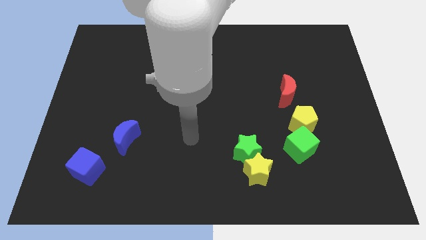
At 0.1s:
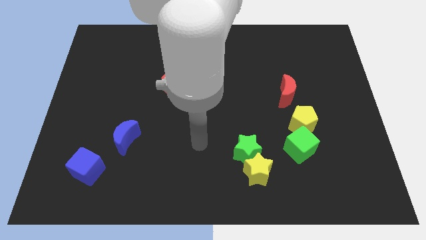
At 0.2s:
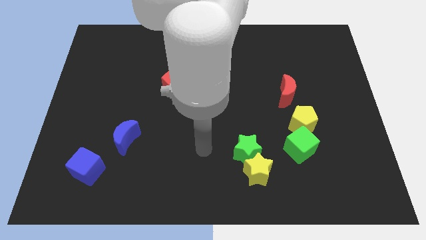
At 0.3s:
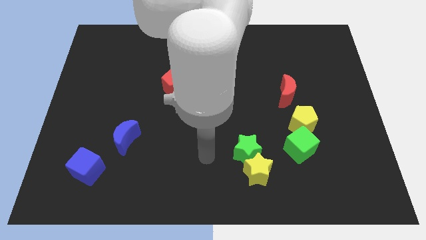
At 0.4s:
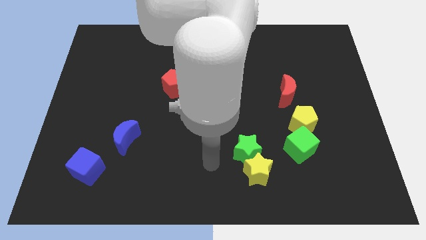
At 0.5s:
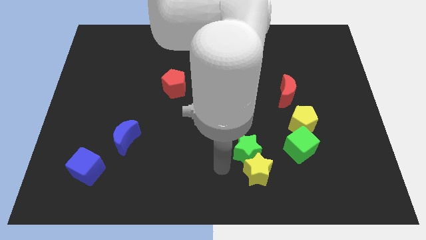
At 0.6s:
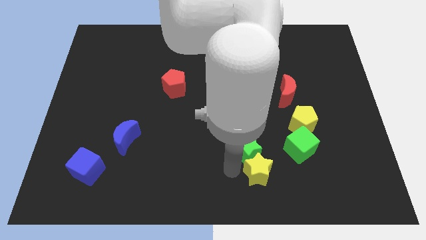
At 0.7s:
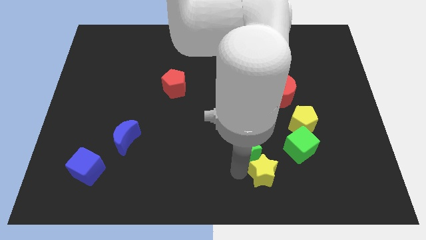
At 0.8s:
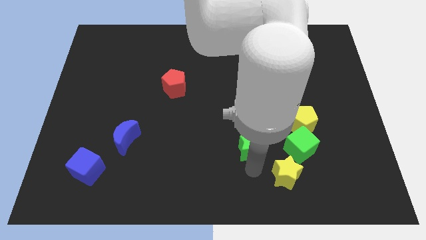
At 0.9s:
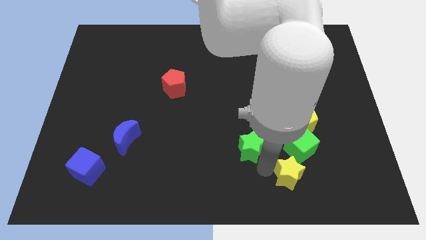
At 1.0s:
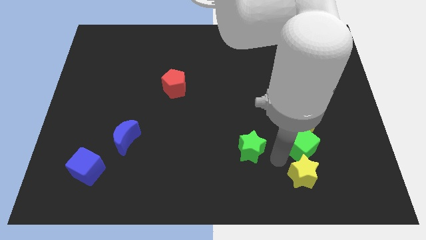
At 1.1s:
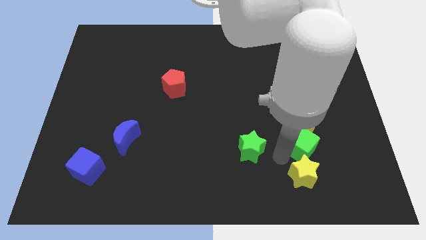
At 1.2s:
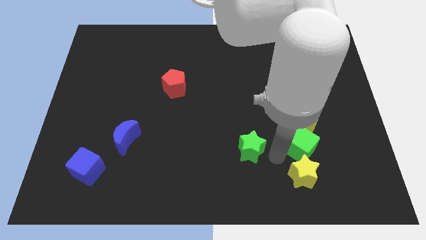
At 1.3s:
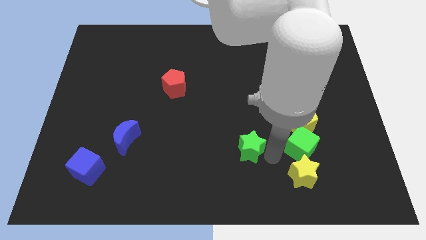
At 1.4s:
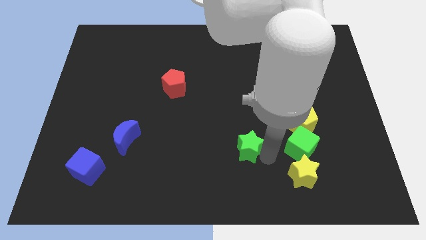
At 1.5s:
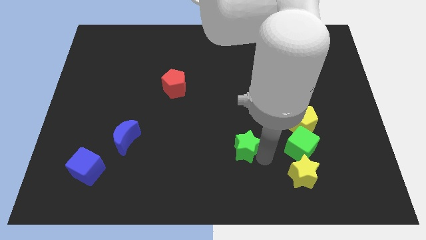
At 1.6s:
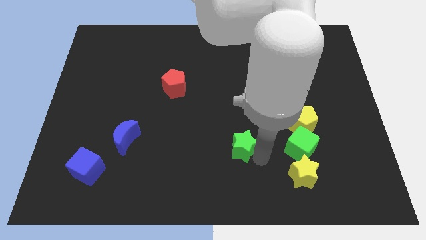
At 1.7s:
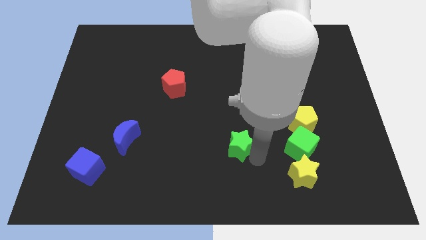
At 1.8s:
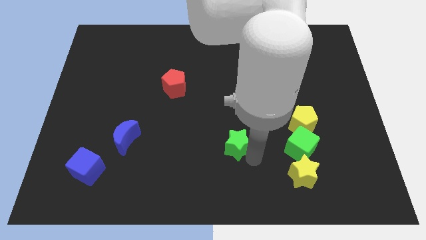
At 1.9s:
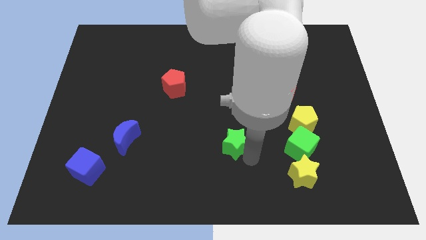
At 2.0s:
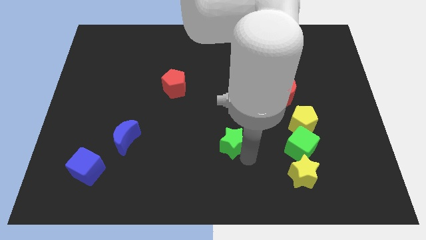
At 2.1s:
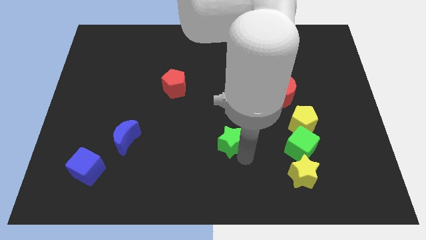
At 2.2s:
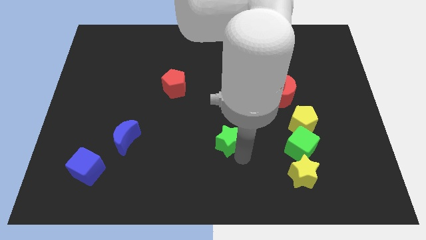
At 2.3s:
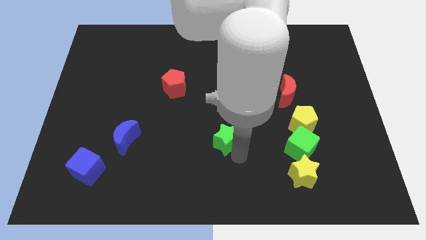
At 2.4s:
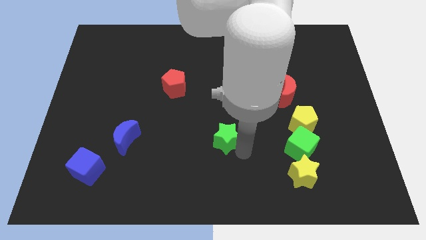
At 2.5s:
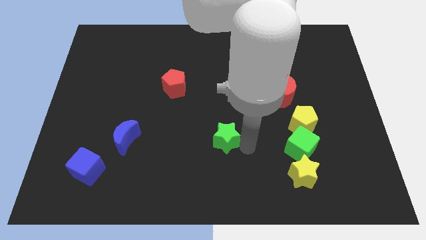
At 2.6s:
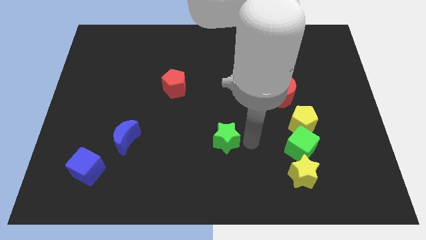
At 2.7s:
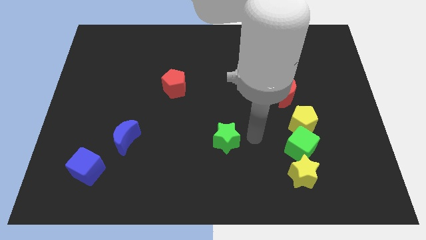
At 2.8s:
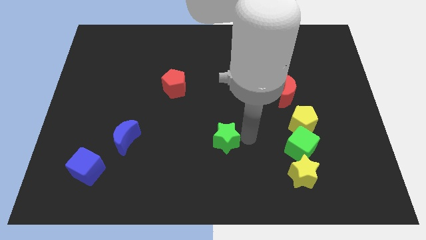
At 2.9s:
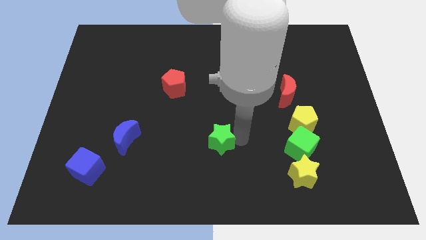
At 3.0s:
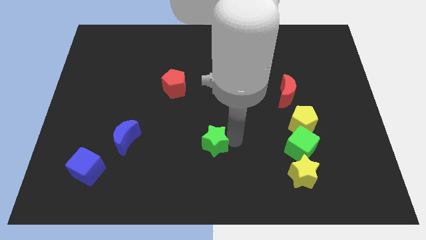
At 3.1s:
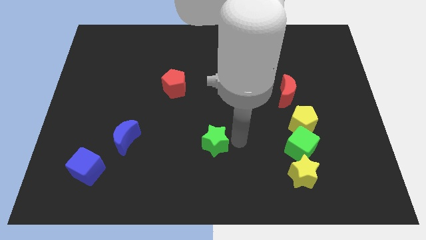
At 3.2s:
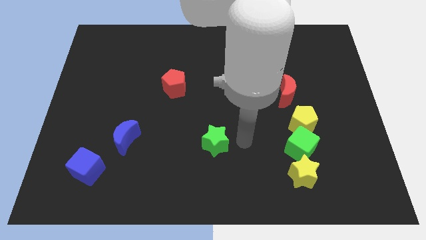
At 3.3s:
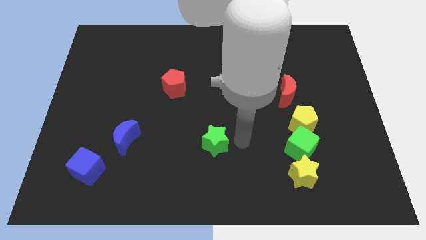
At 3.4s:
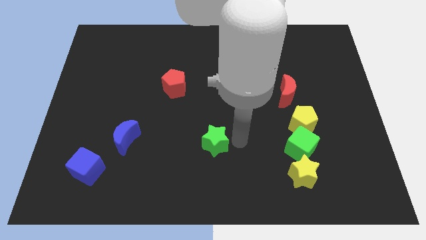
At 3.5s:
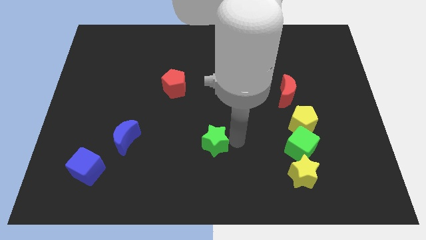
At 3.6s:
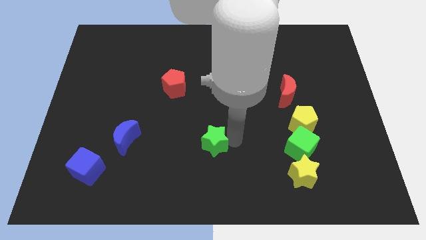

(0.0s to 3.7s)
slightly slide the green star to the left

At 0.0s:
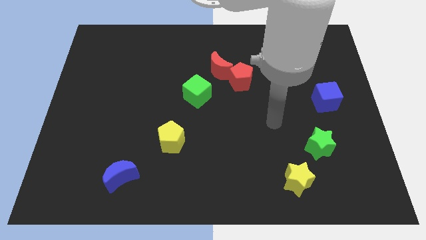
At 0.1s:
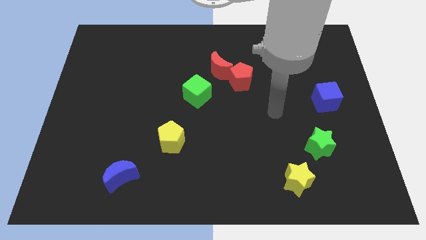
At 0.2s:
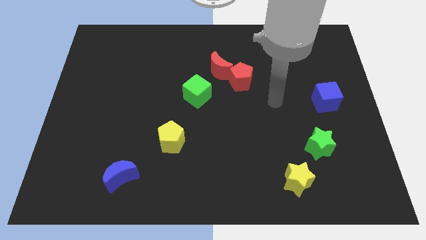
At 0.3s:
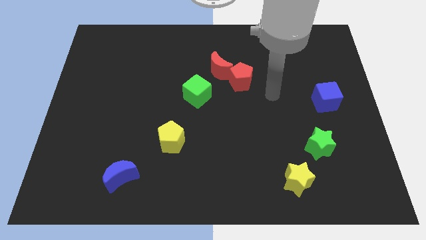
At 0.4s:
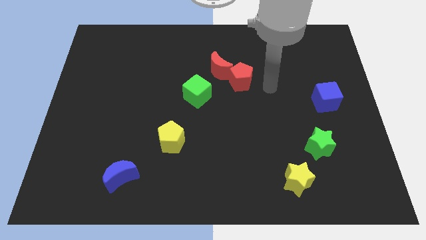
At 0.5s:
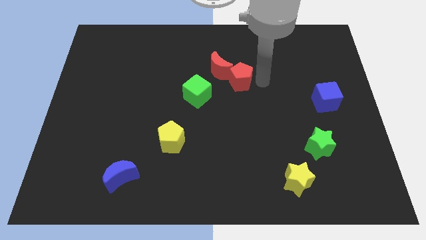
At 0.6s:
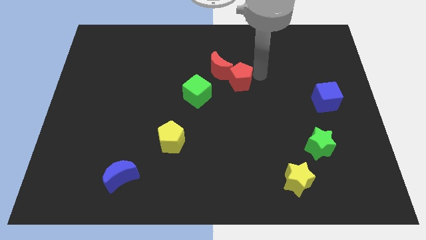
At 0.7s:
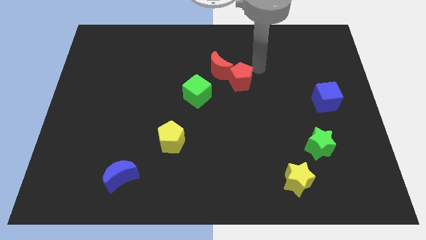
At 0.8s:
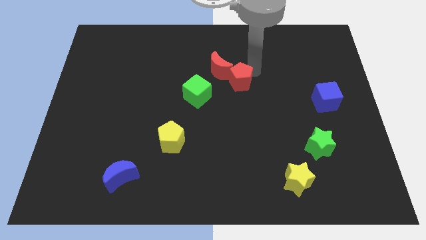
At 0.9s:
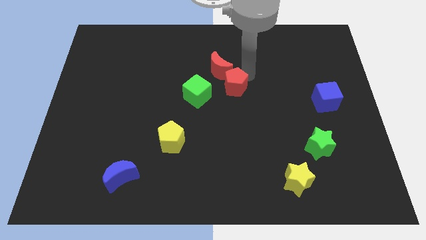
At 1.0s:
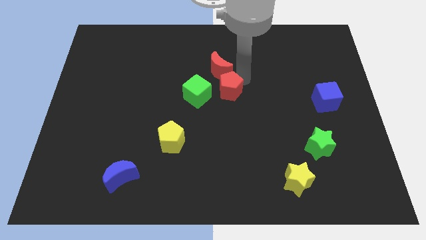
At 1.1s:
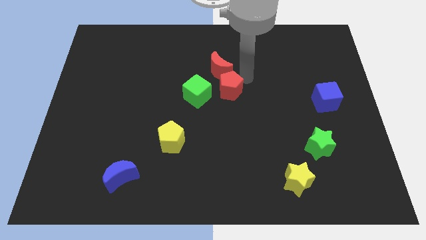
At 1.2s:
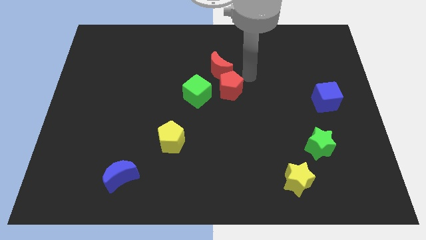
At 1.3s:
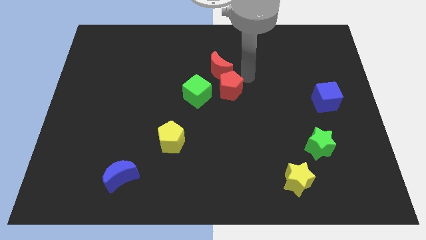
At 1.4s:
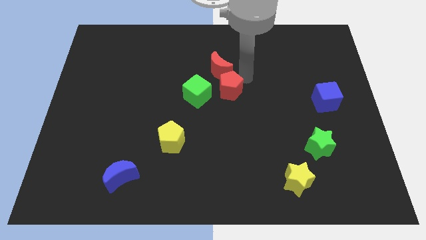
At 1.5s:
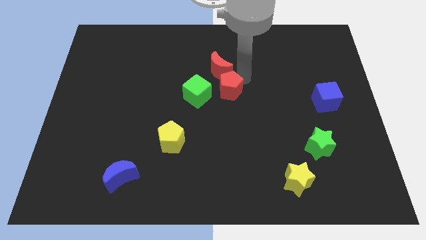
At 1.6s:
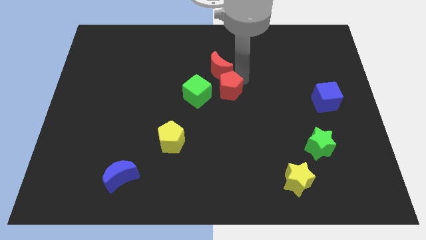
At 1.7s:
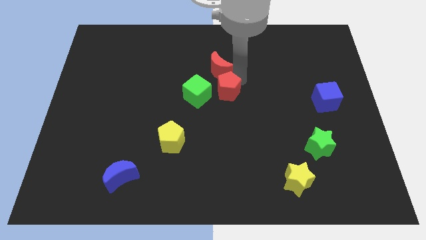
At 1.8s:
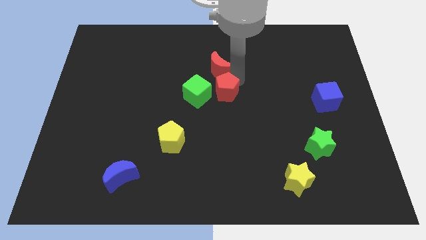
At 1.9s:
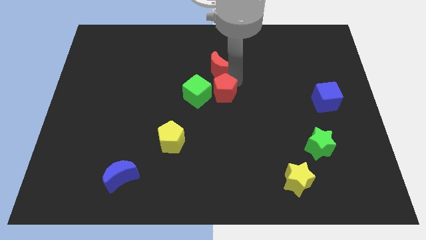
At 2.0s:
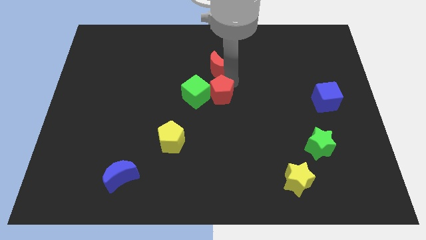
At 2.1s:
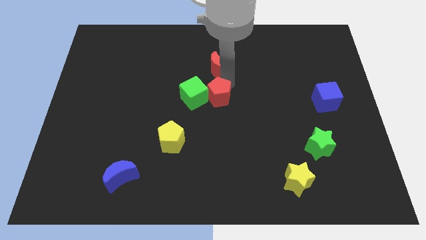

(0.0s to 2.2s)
push the red pentagon down and left diagonally a little bit

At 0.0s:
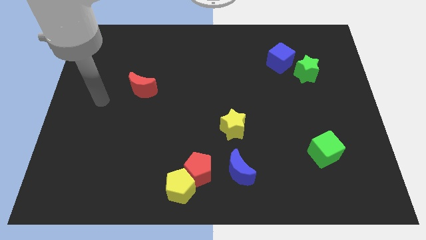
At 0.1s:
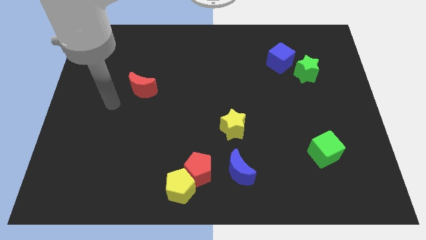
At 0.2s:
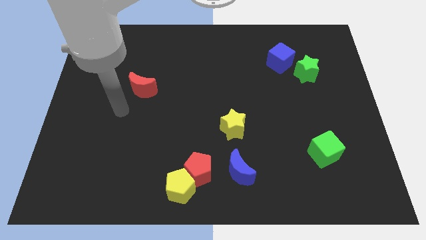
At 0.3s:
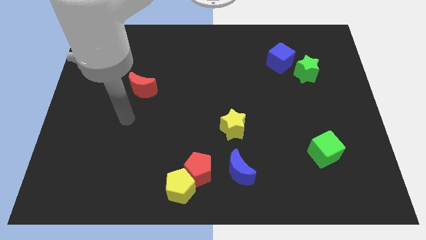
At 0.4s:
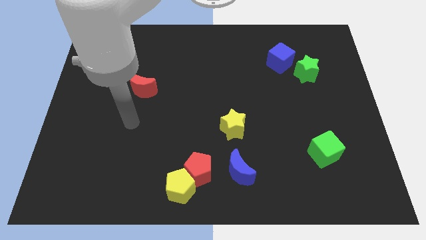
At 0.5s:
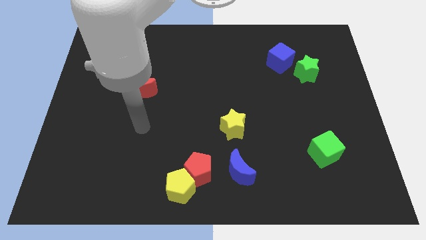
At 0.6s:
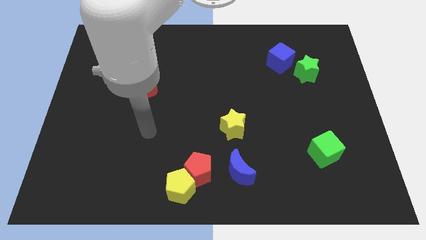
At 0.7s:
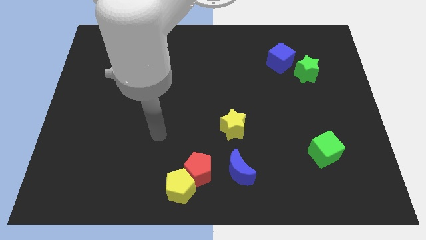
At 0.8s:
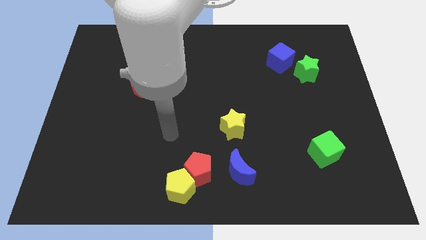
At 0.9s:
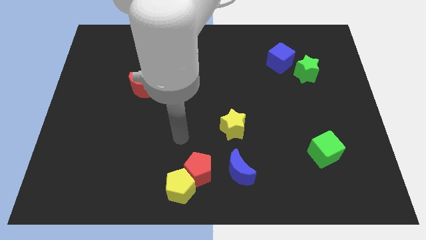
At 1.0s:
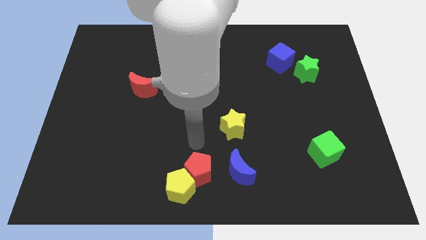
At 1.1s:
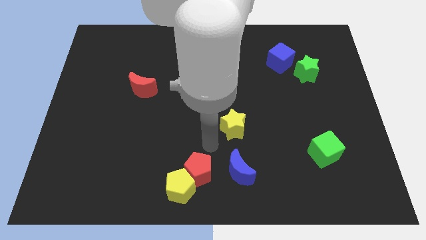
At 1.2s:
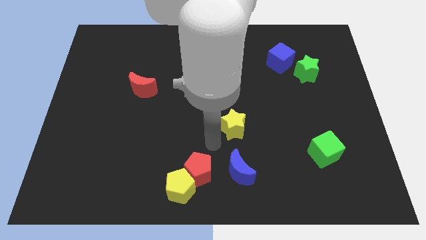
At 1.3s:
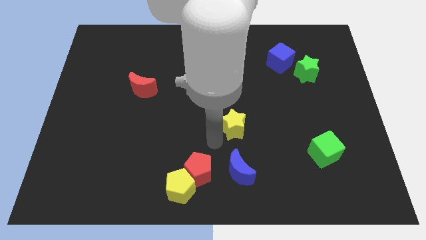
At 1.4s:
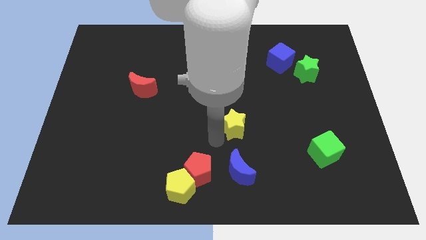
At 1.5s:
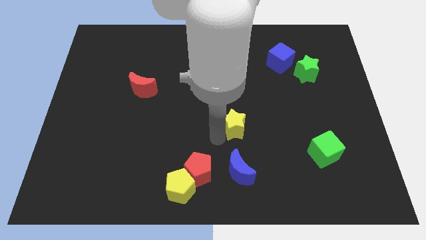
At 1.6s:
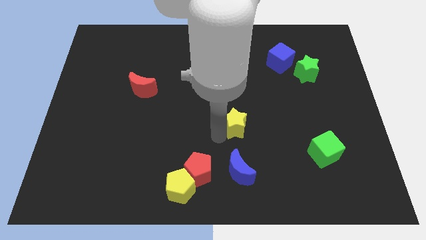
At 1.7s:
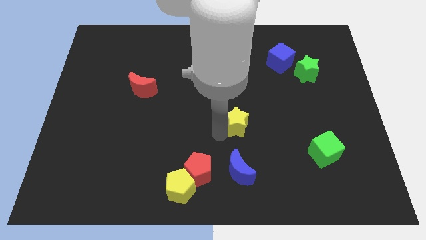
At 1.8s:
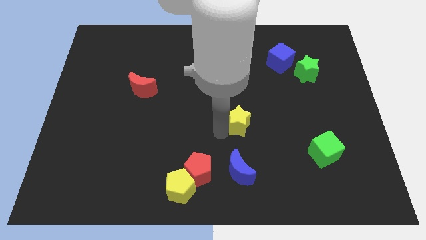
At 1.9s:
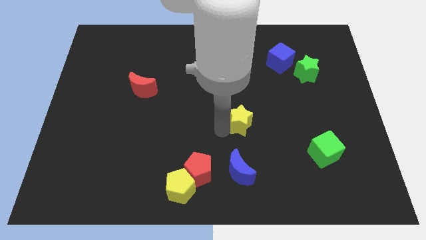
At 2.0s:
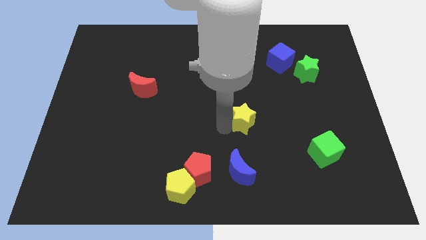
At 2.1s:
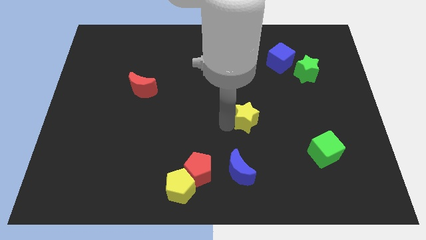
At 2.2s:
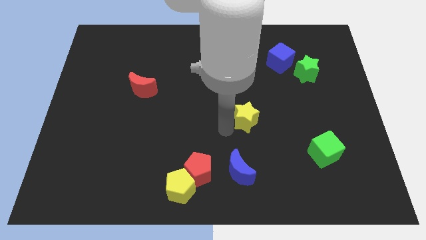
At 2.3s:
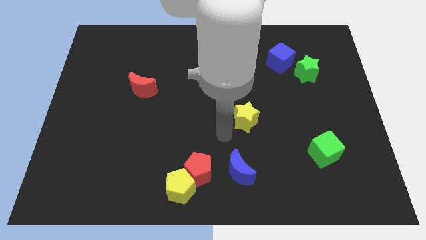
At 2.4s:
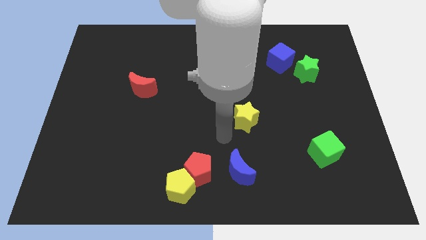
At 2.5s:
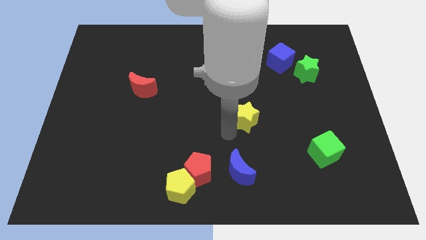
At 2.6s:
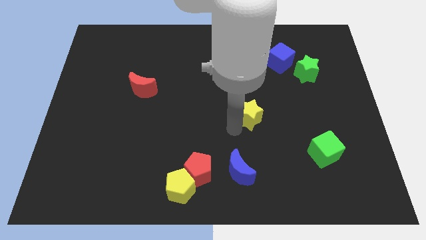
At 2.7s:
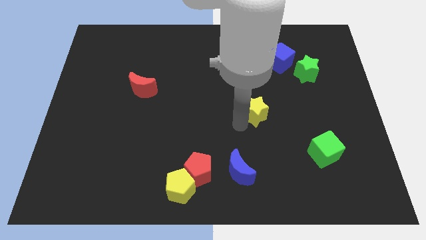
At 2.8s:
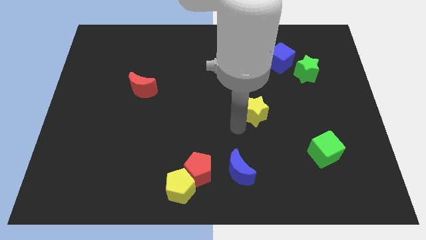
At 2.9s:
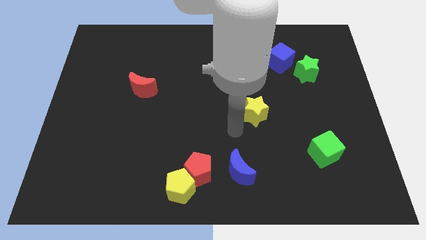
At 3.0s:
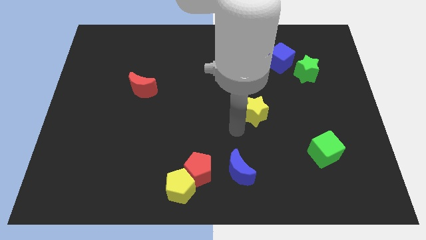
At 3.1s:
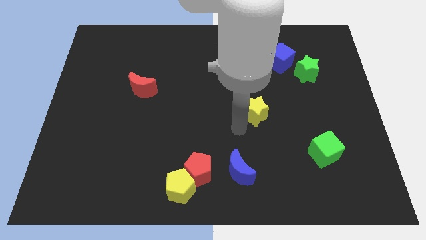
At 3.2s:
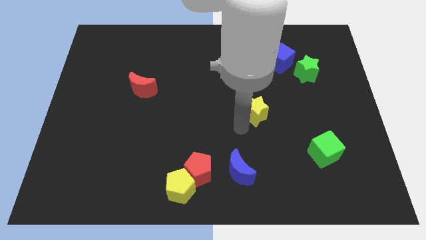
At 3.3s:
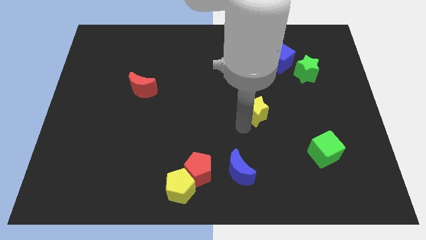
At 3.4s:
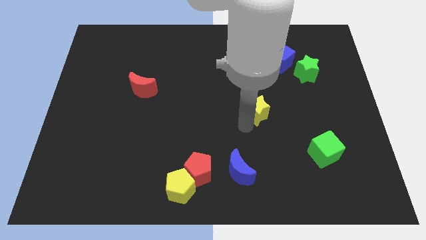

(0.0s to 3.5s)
move the yellow star somewhat upwards and right diagonally
